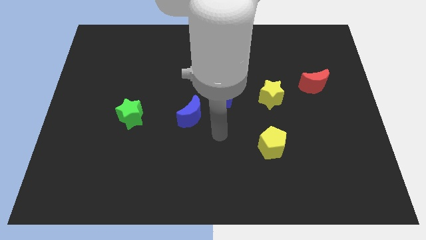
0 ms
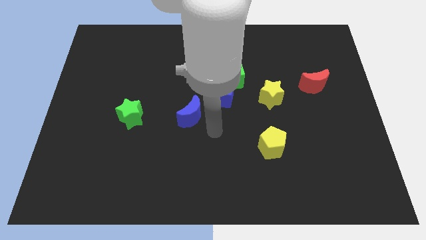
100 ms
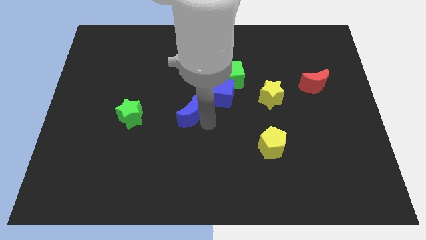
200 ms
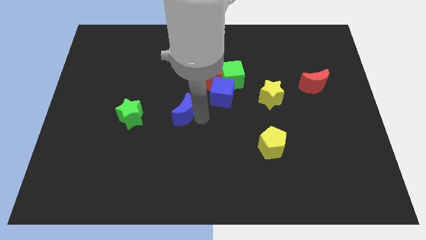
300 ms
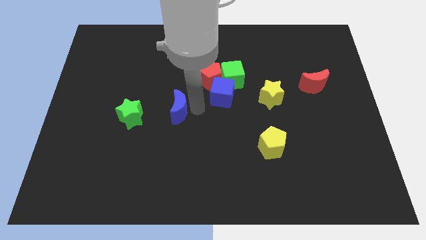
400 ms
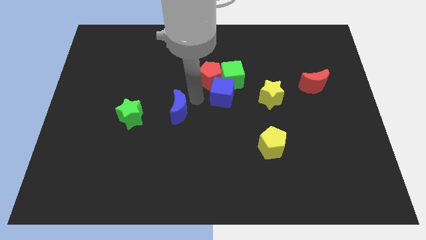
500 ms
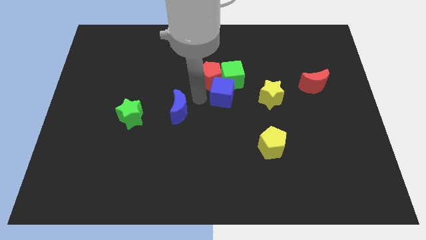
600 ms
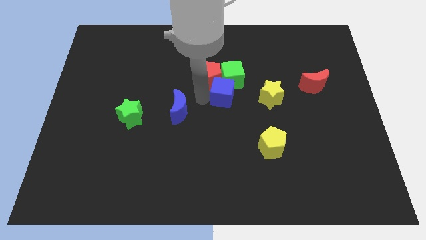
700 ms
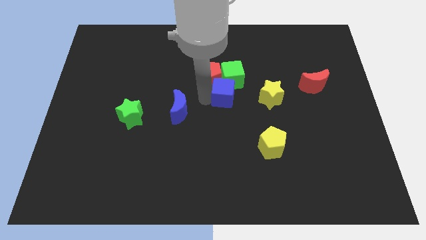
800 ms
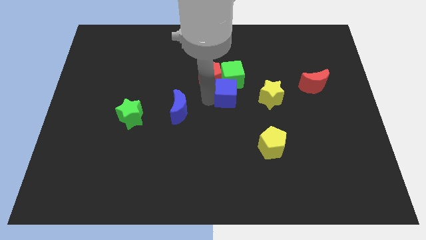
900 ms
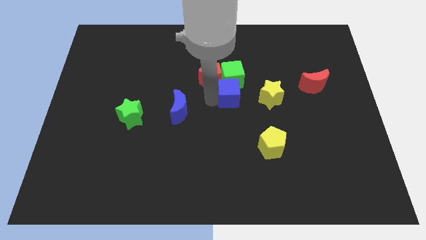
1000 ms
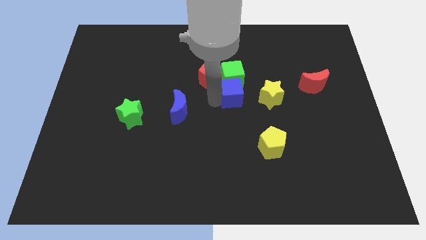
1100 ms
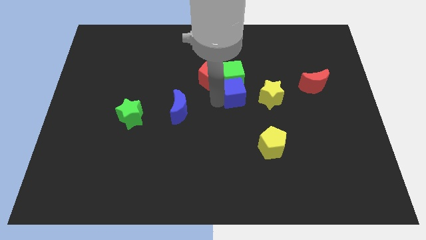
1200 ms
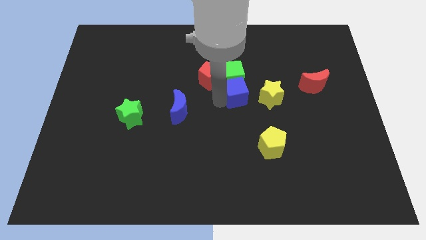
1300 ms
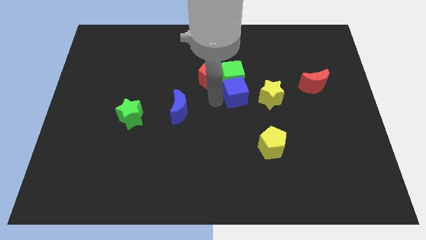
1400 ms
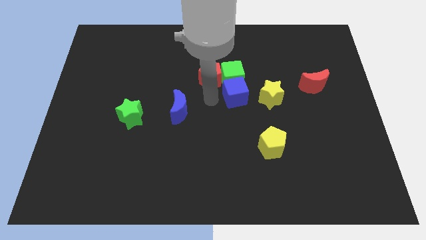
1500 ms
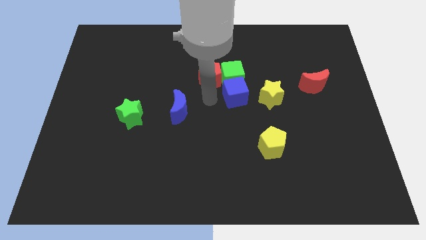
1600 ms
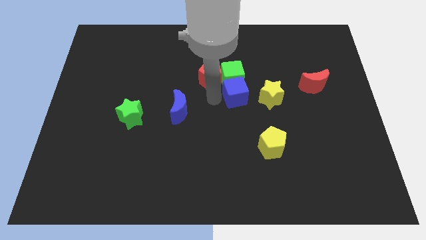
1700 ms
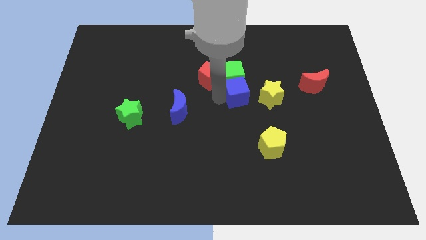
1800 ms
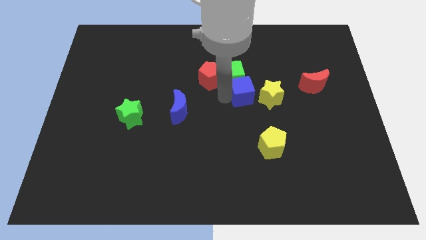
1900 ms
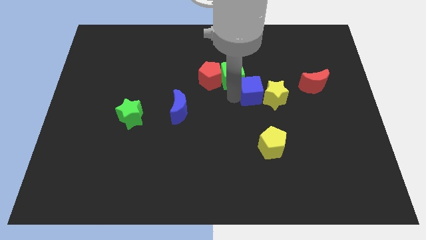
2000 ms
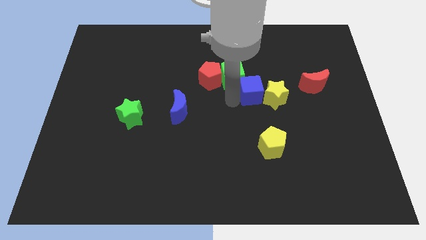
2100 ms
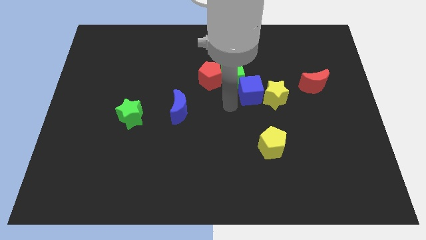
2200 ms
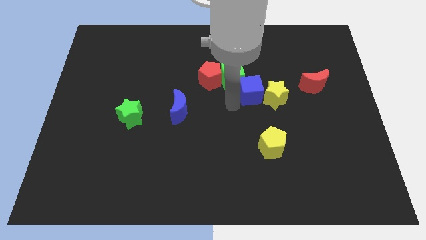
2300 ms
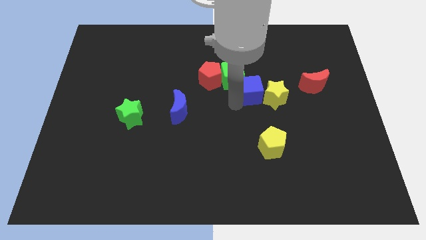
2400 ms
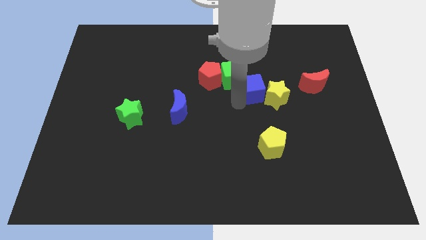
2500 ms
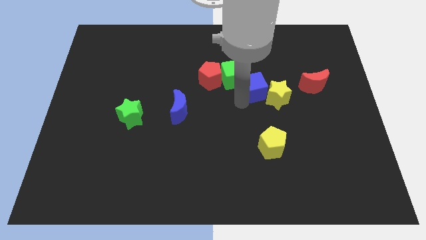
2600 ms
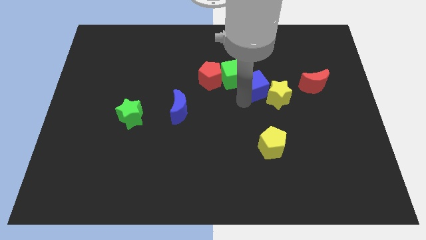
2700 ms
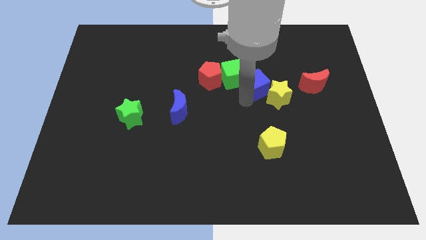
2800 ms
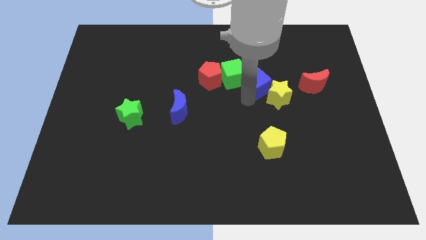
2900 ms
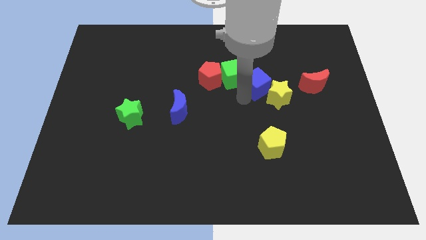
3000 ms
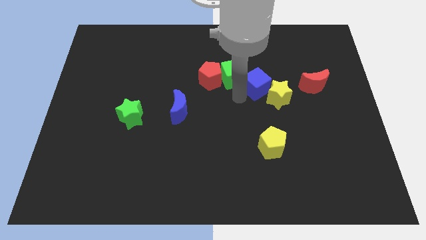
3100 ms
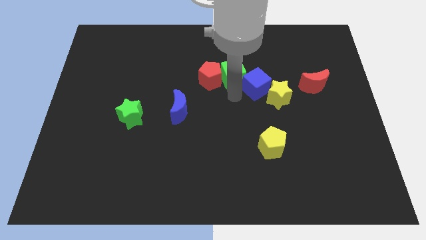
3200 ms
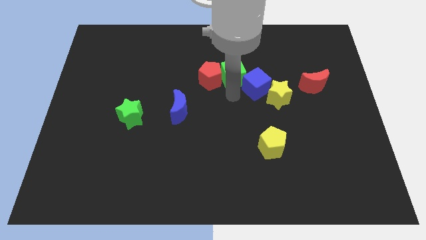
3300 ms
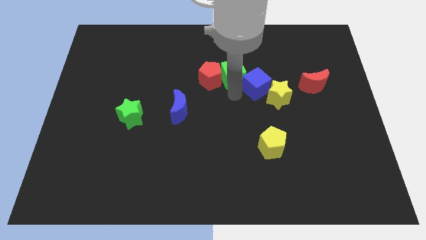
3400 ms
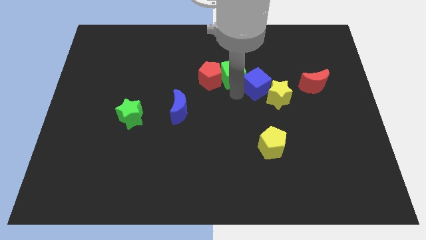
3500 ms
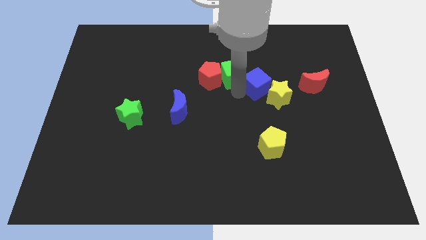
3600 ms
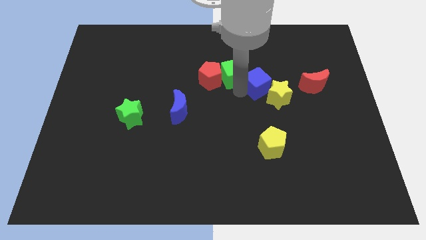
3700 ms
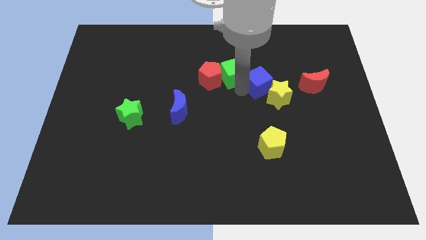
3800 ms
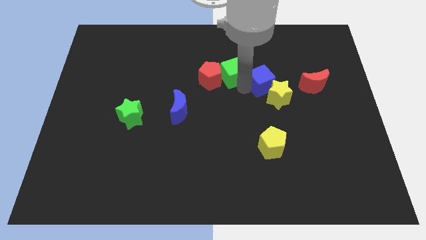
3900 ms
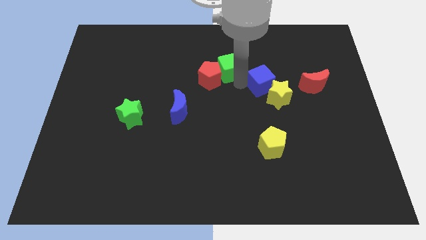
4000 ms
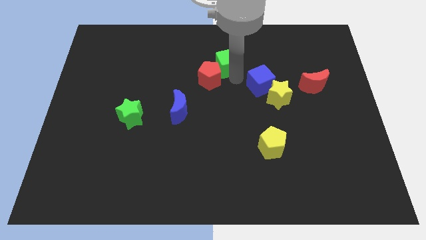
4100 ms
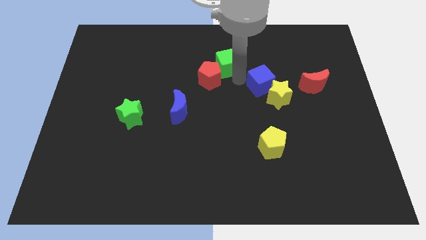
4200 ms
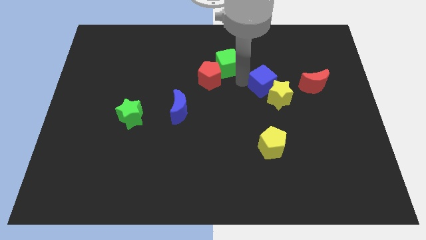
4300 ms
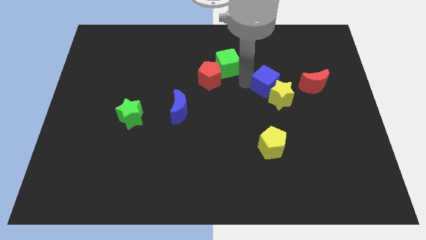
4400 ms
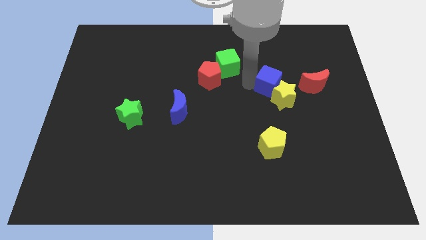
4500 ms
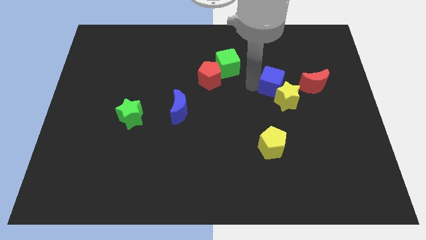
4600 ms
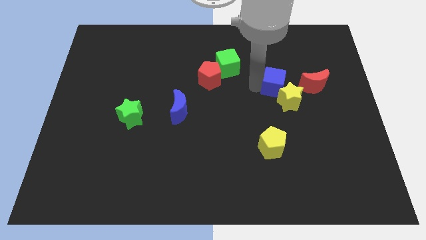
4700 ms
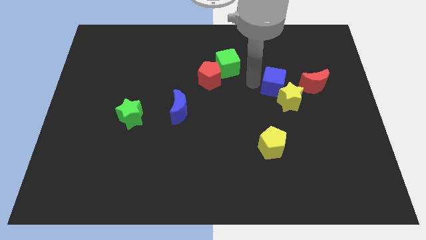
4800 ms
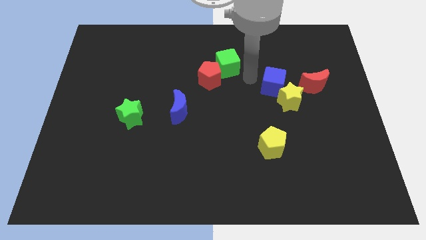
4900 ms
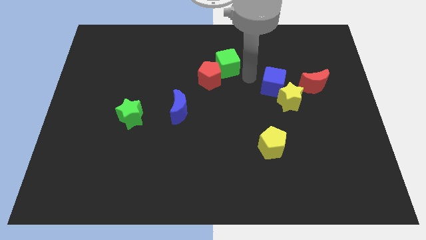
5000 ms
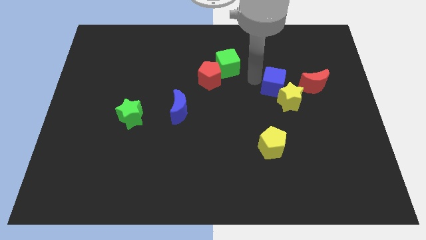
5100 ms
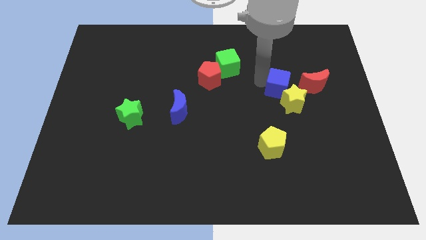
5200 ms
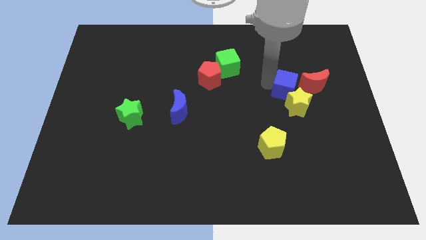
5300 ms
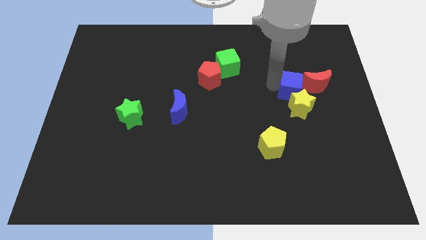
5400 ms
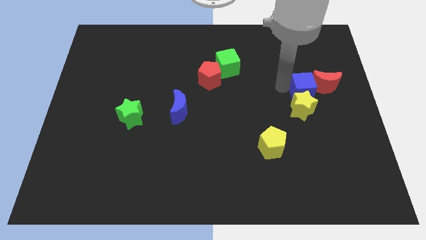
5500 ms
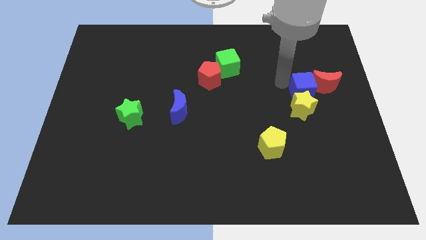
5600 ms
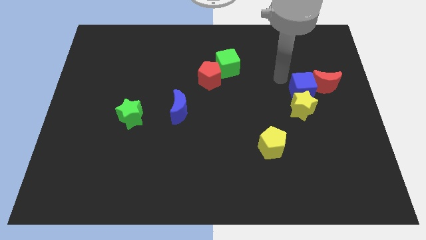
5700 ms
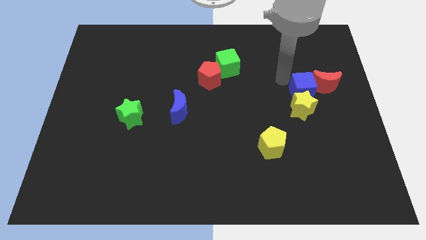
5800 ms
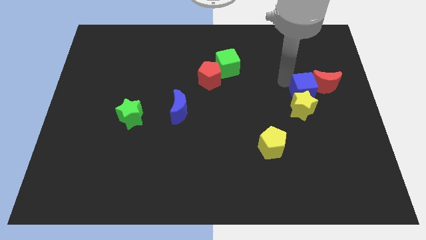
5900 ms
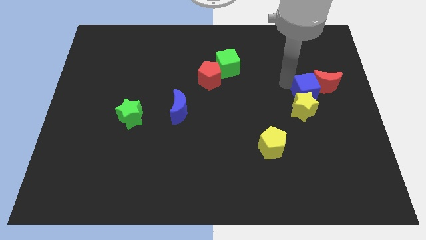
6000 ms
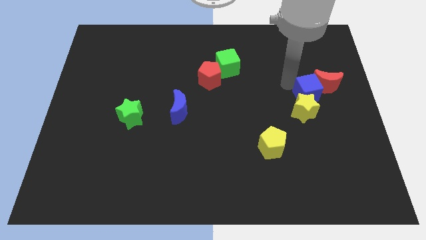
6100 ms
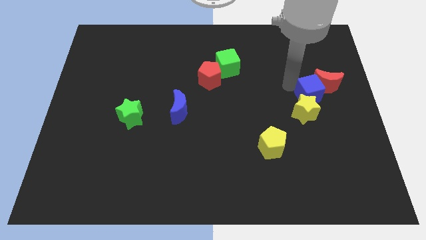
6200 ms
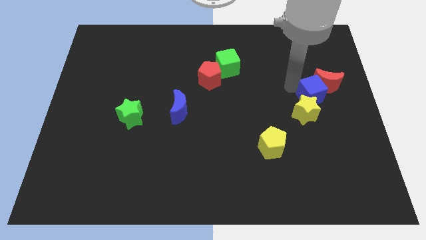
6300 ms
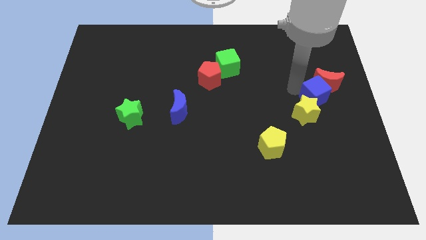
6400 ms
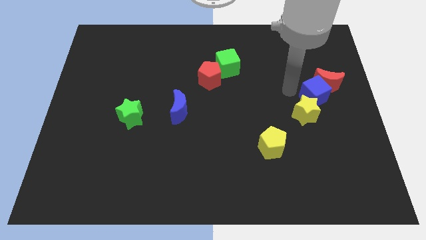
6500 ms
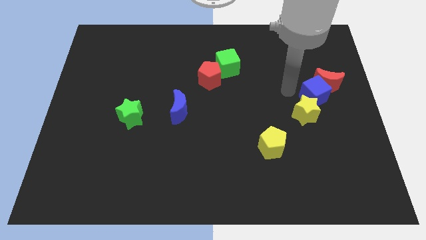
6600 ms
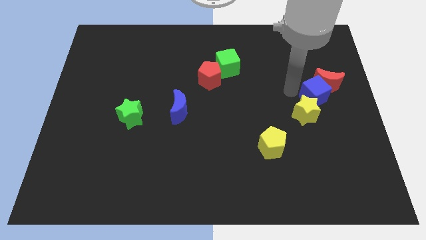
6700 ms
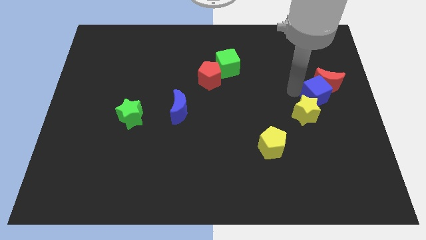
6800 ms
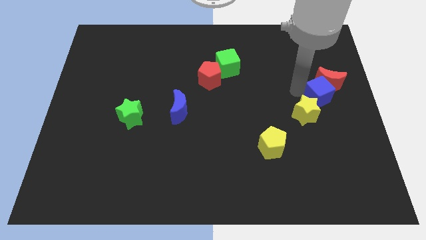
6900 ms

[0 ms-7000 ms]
move the blue cube to the right side

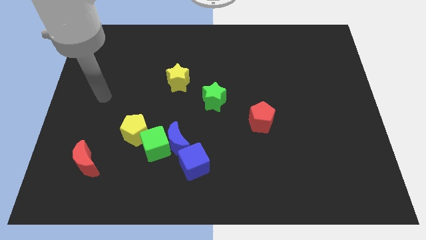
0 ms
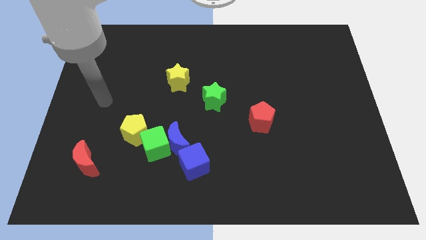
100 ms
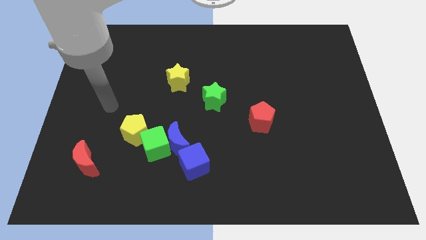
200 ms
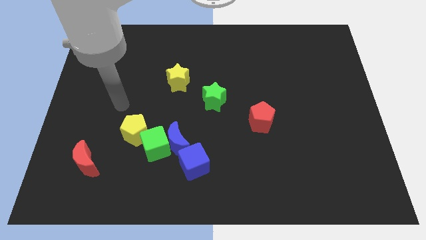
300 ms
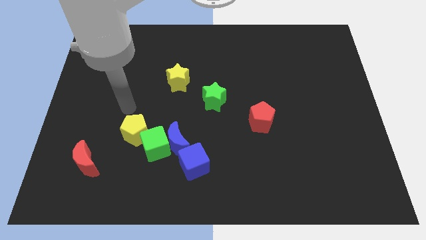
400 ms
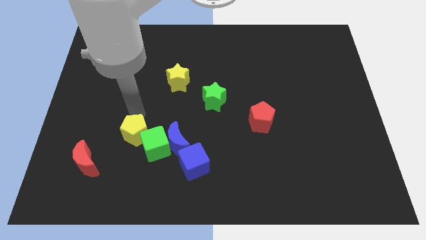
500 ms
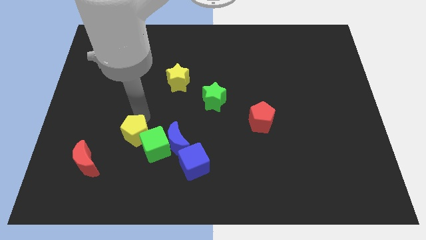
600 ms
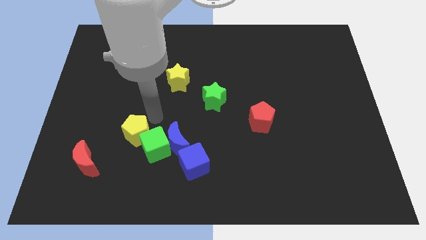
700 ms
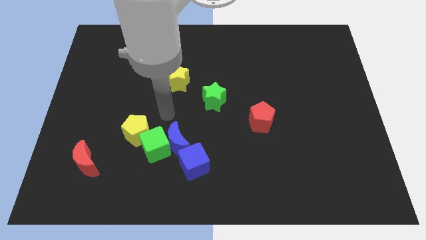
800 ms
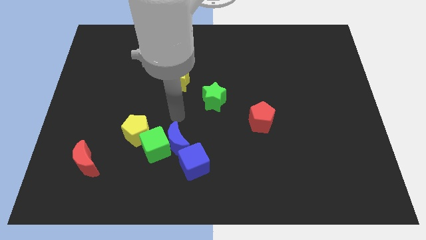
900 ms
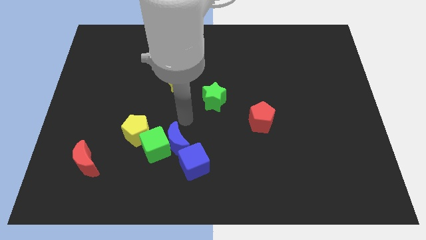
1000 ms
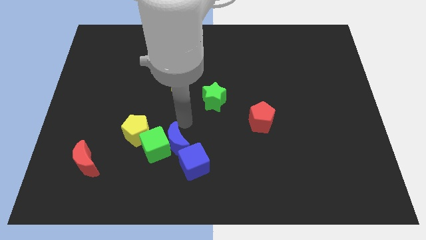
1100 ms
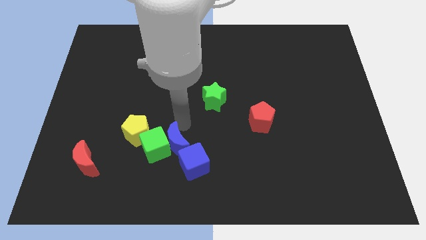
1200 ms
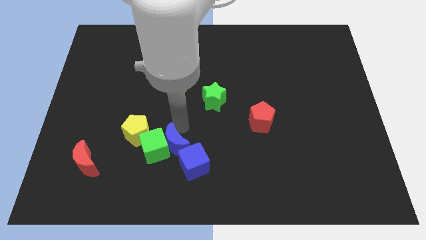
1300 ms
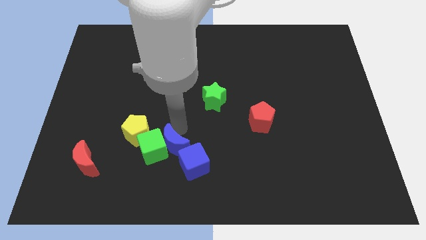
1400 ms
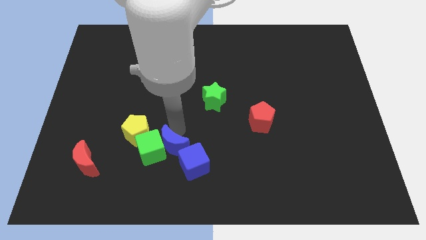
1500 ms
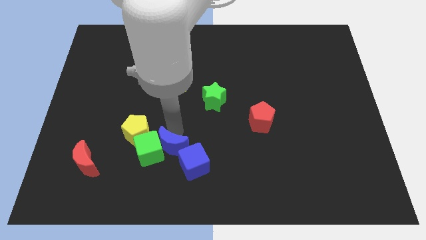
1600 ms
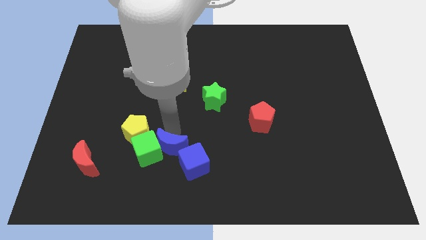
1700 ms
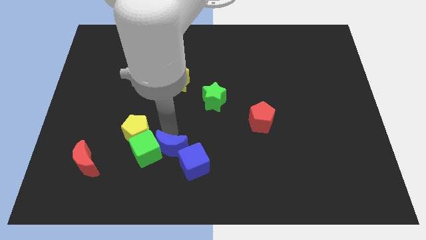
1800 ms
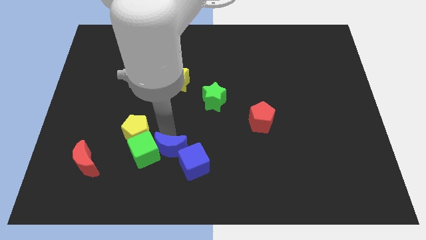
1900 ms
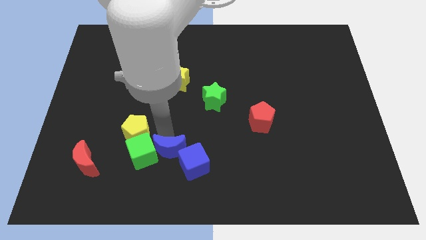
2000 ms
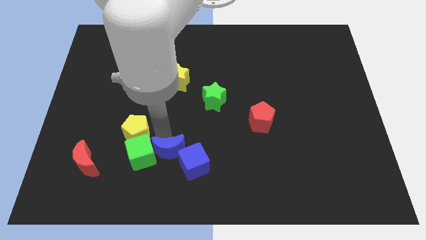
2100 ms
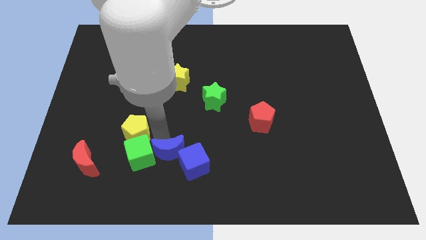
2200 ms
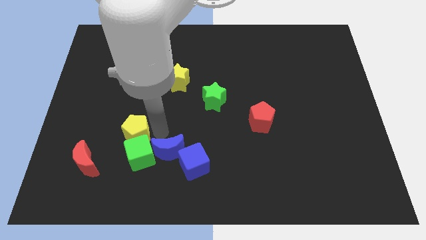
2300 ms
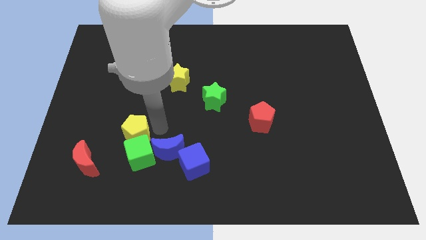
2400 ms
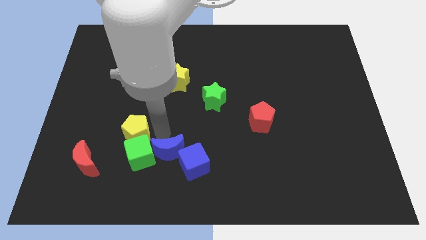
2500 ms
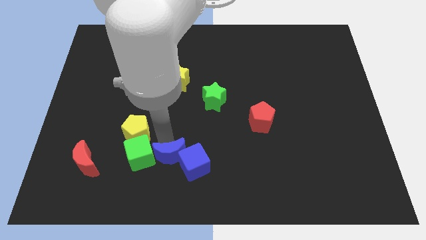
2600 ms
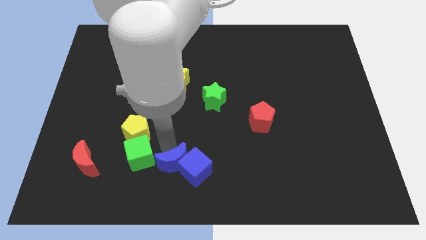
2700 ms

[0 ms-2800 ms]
put the blue moon to the bottom
